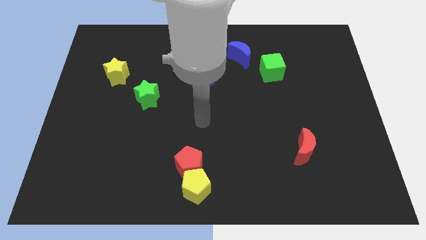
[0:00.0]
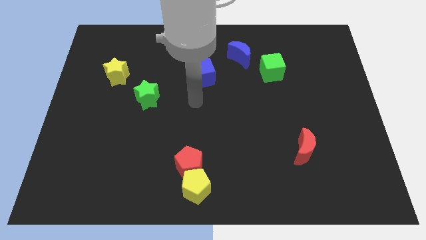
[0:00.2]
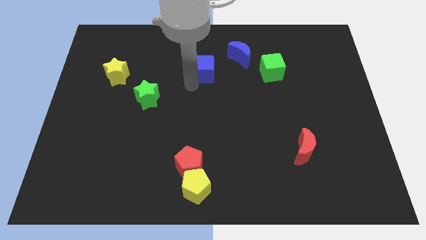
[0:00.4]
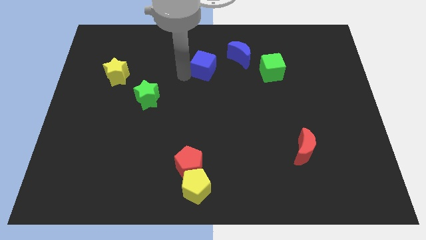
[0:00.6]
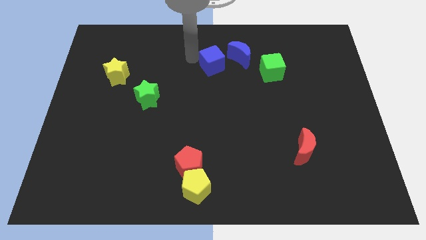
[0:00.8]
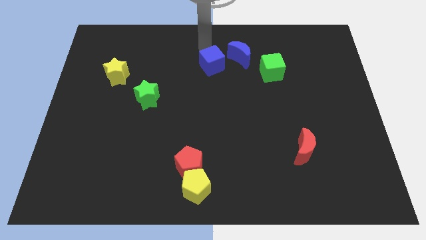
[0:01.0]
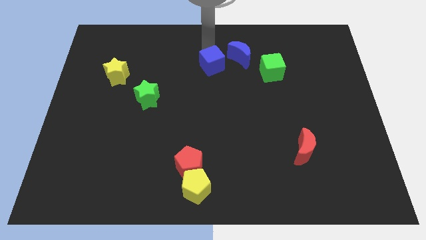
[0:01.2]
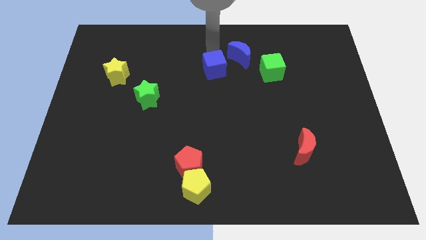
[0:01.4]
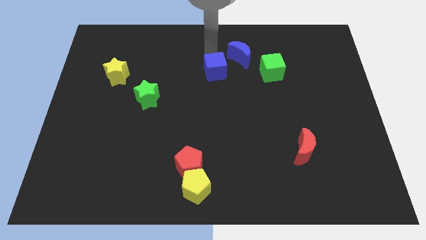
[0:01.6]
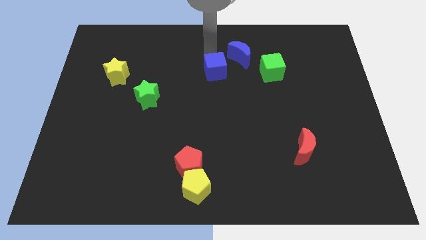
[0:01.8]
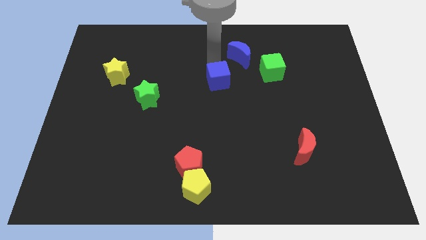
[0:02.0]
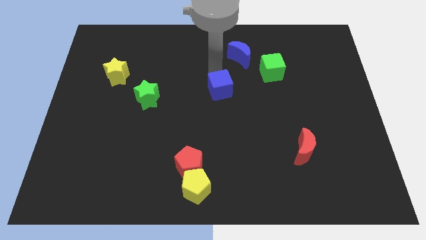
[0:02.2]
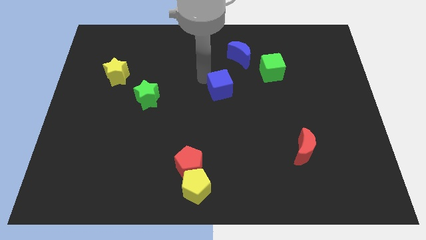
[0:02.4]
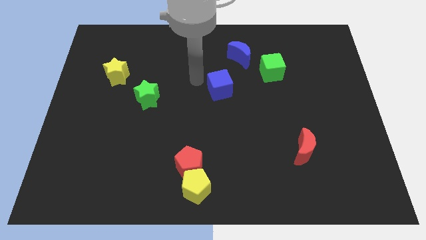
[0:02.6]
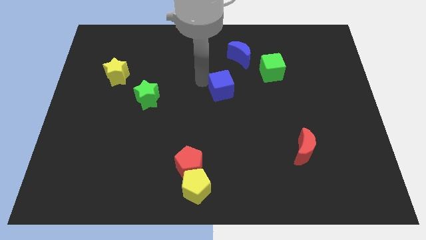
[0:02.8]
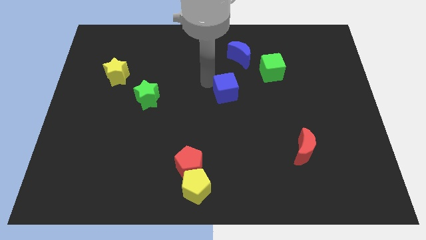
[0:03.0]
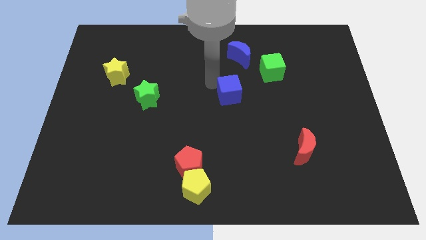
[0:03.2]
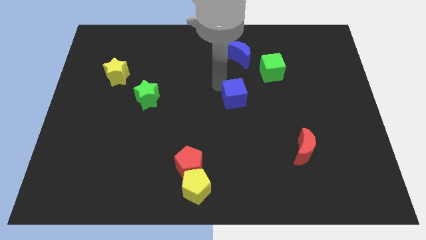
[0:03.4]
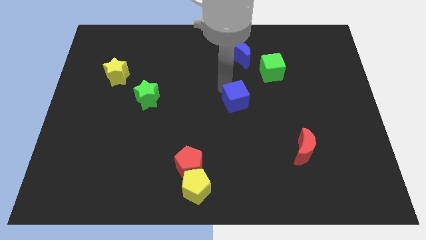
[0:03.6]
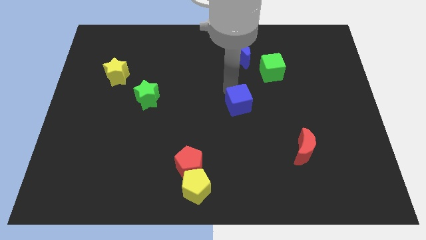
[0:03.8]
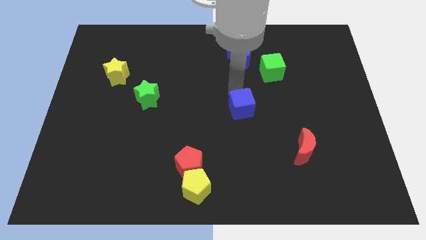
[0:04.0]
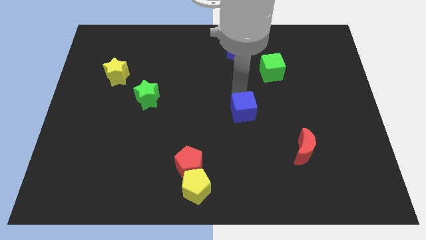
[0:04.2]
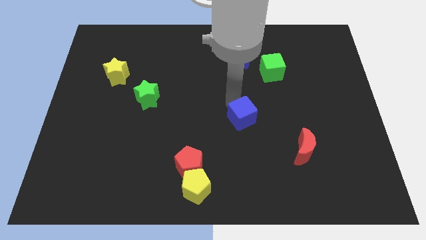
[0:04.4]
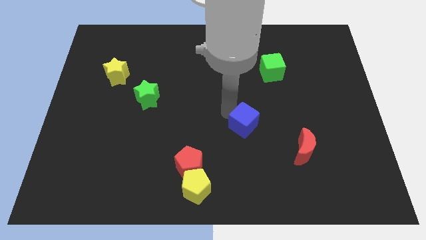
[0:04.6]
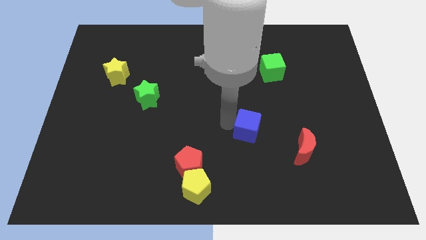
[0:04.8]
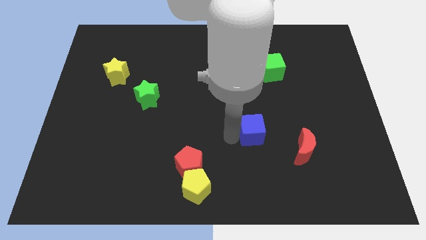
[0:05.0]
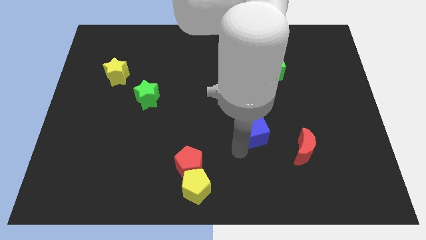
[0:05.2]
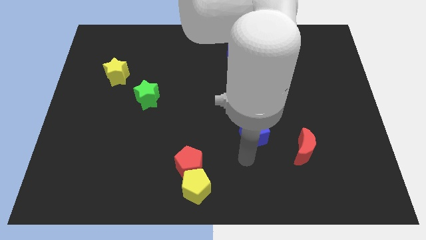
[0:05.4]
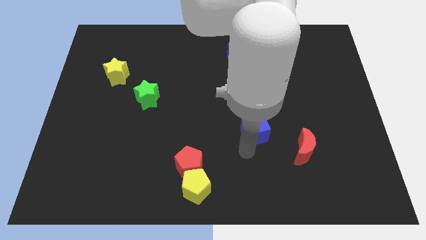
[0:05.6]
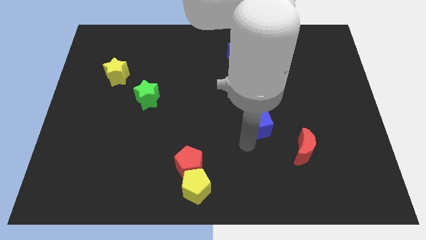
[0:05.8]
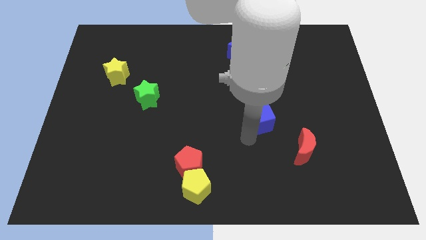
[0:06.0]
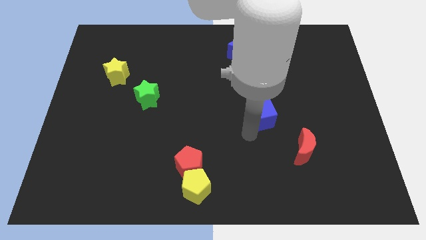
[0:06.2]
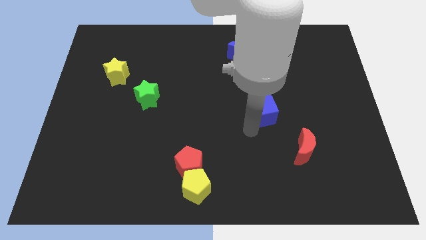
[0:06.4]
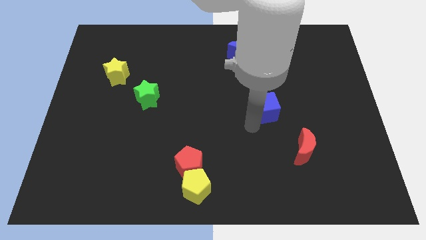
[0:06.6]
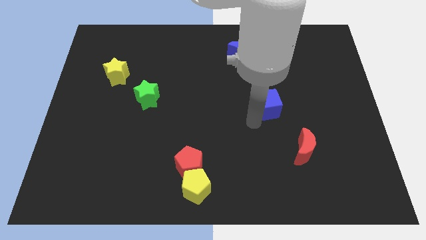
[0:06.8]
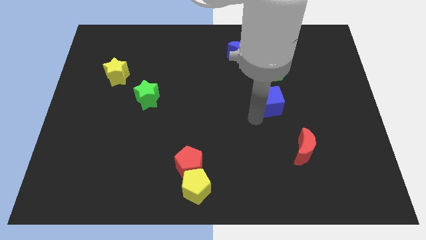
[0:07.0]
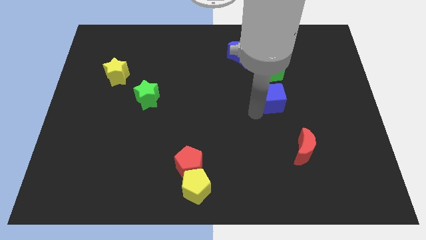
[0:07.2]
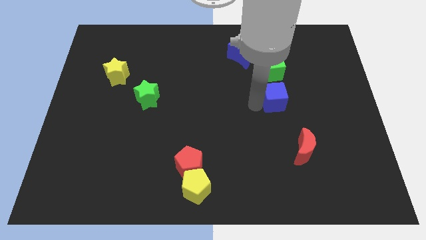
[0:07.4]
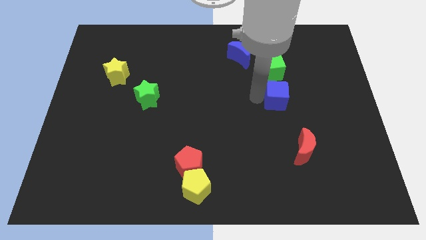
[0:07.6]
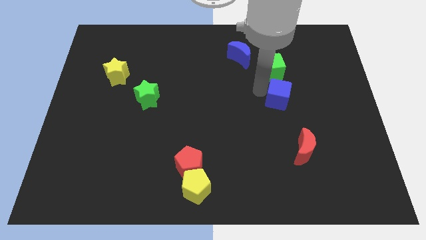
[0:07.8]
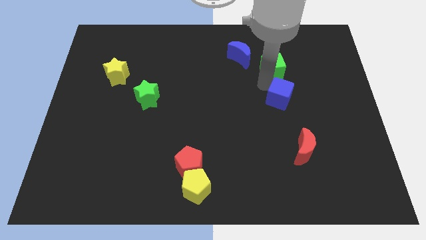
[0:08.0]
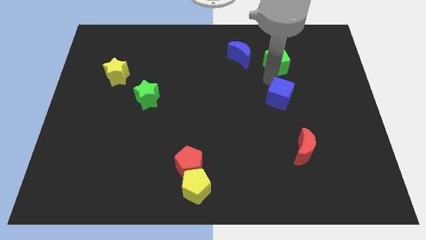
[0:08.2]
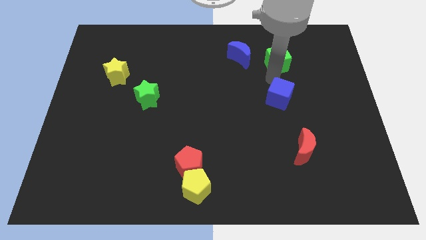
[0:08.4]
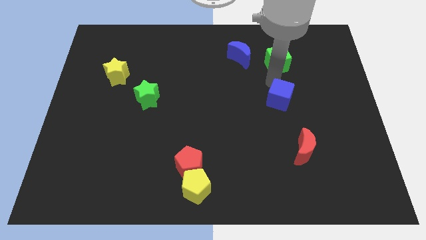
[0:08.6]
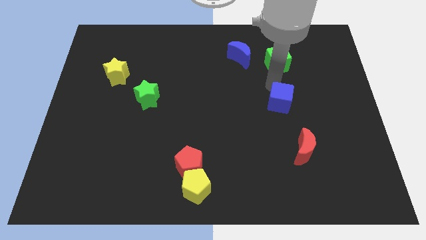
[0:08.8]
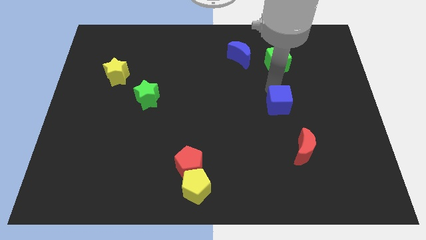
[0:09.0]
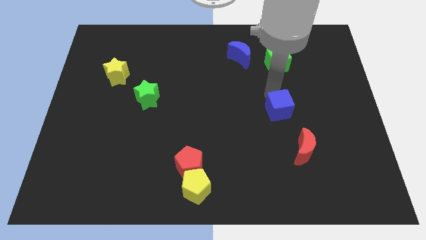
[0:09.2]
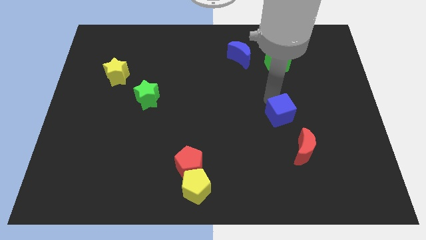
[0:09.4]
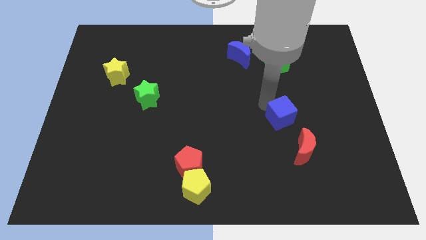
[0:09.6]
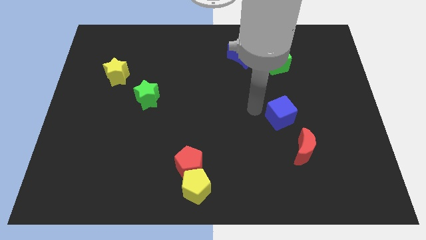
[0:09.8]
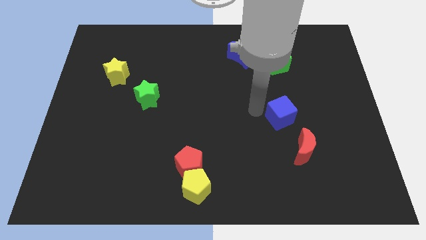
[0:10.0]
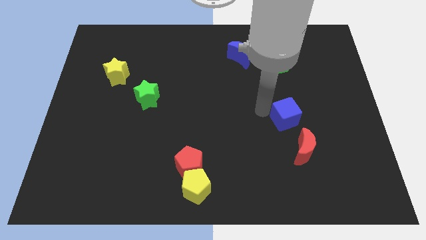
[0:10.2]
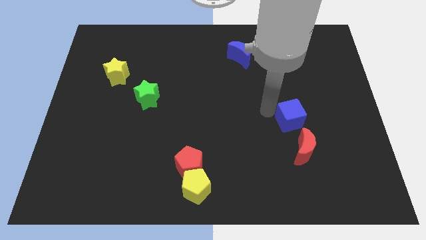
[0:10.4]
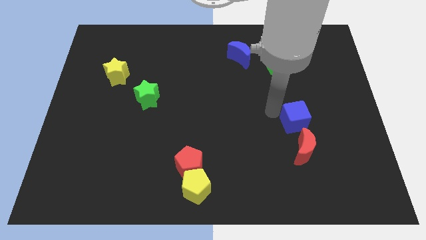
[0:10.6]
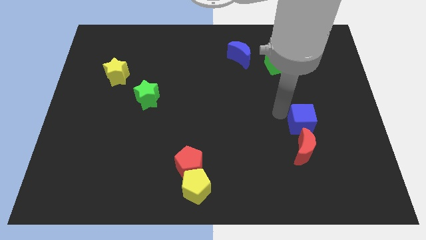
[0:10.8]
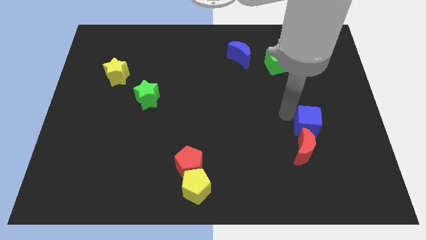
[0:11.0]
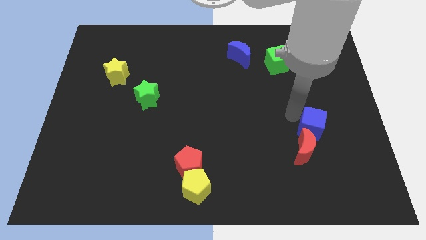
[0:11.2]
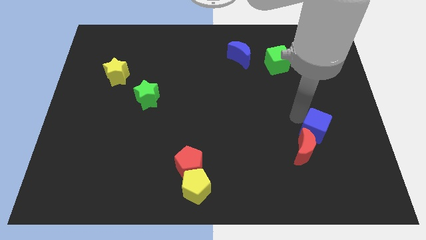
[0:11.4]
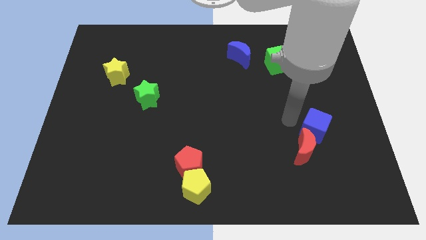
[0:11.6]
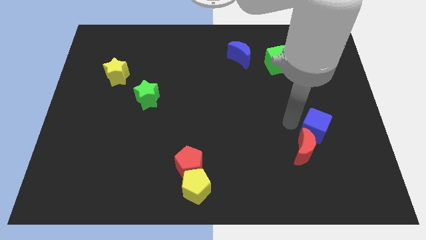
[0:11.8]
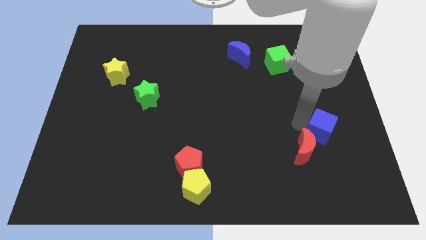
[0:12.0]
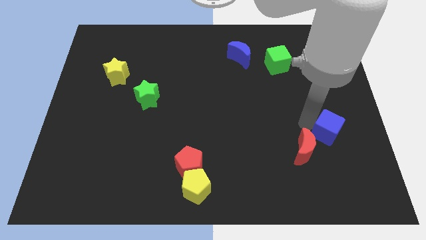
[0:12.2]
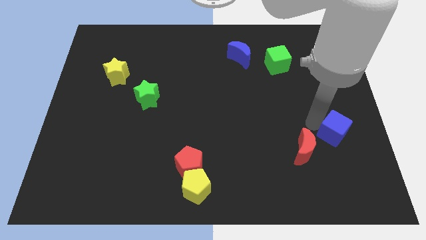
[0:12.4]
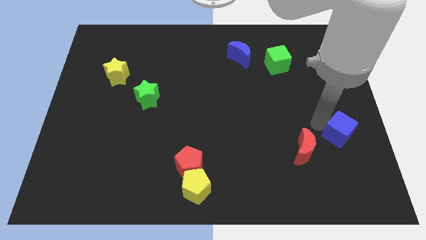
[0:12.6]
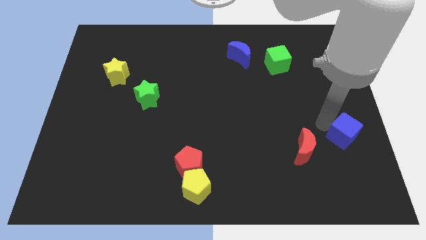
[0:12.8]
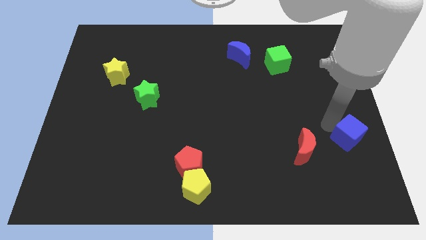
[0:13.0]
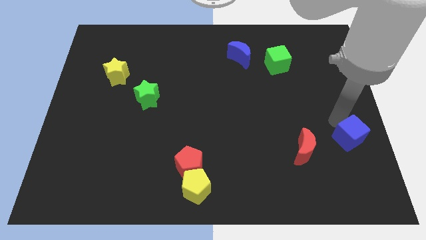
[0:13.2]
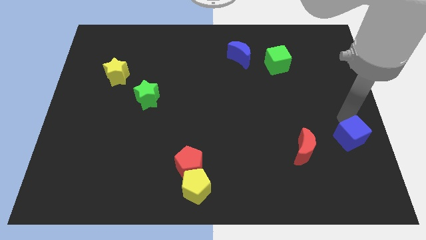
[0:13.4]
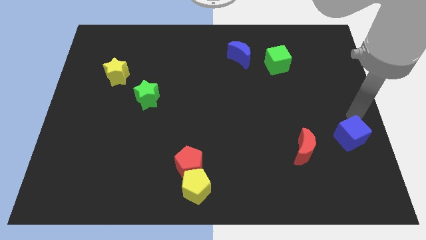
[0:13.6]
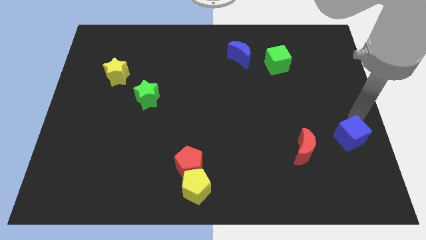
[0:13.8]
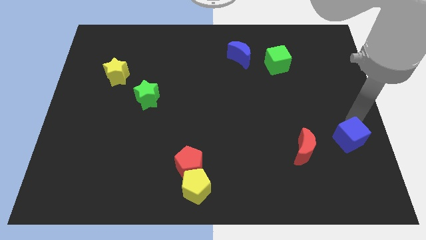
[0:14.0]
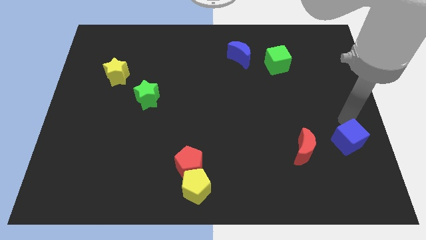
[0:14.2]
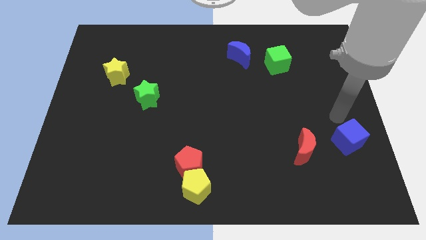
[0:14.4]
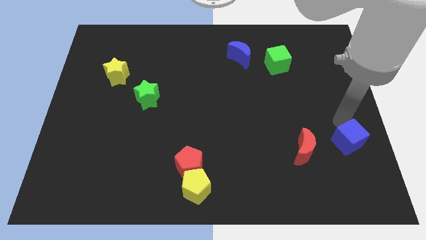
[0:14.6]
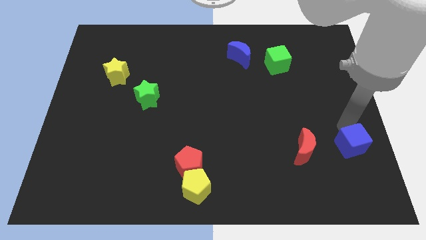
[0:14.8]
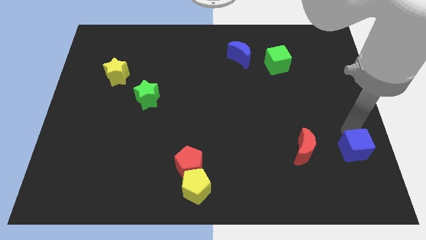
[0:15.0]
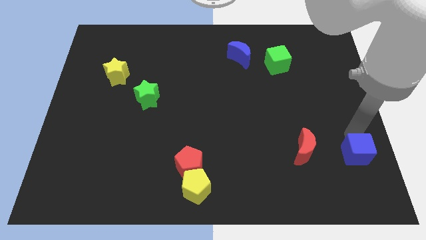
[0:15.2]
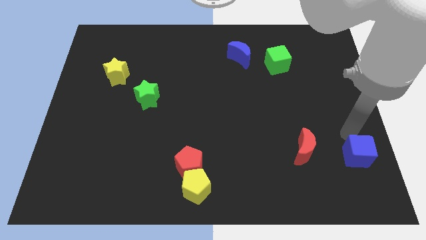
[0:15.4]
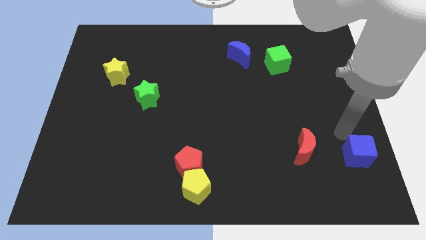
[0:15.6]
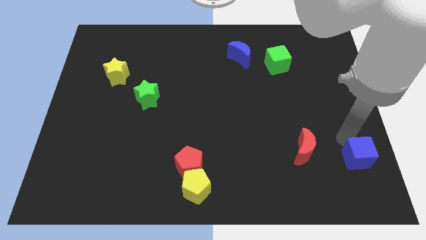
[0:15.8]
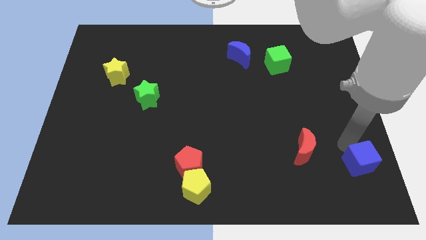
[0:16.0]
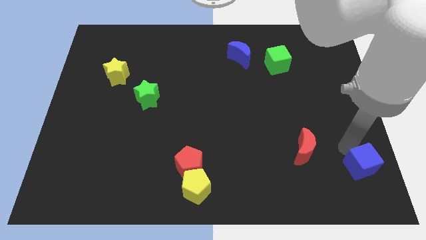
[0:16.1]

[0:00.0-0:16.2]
slide the blue cube to the lower right corner
